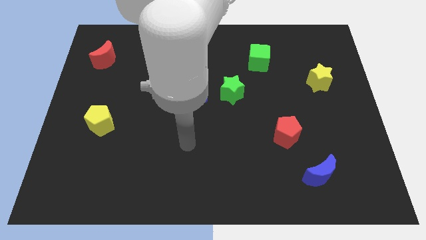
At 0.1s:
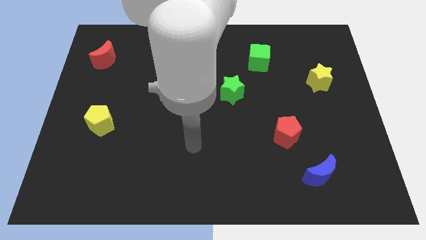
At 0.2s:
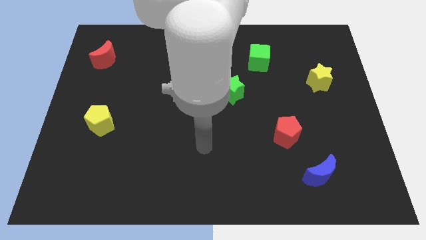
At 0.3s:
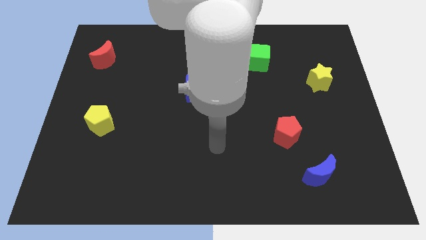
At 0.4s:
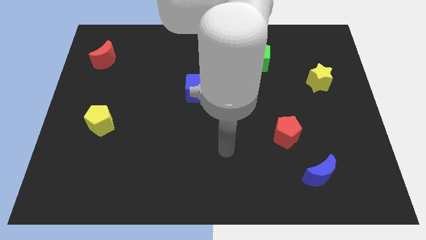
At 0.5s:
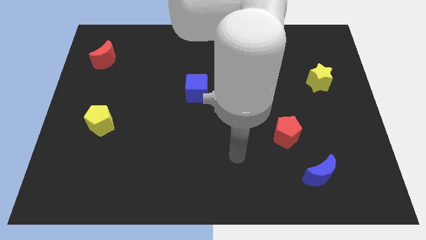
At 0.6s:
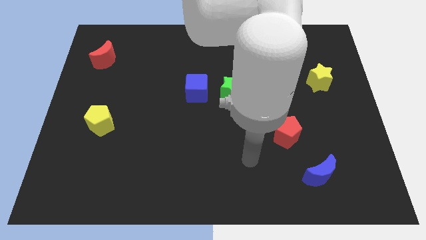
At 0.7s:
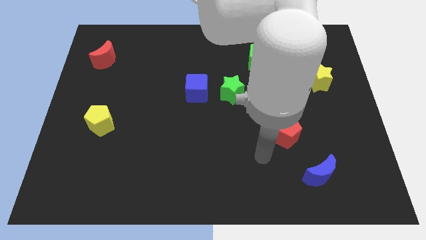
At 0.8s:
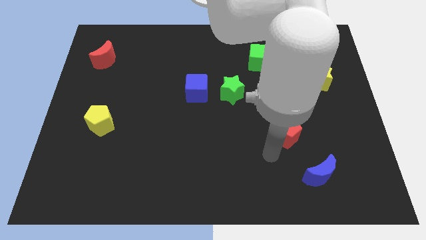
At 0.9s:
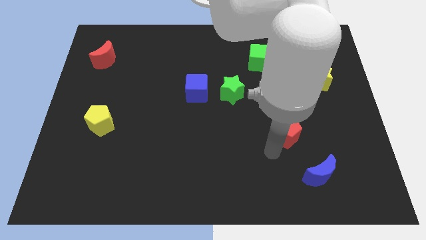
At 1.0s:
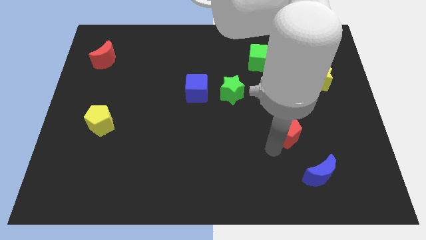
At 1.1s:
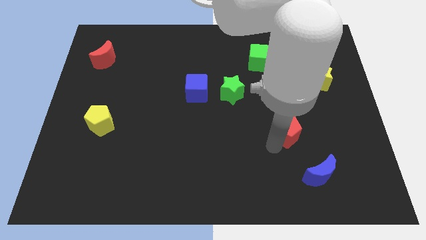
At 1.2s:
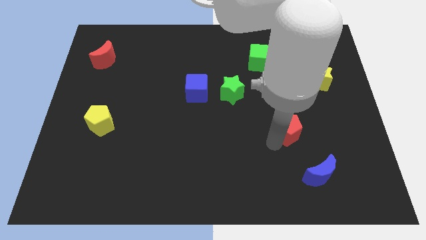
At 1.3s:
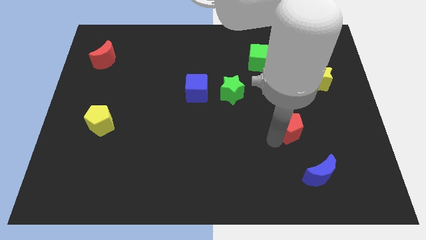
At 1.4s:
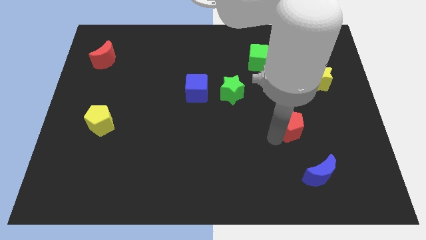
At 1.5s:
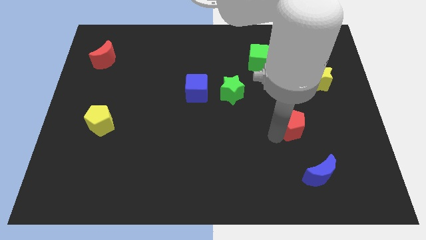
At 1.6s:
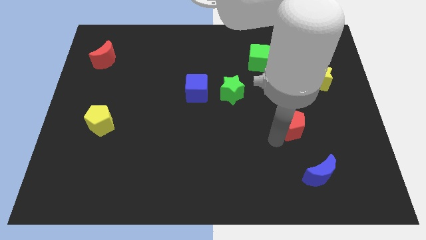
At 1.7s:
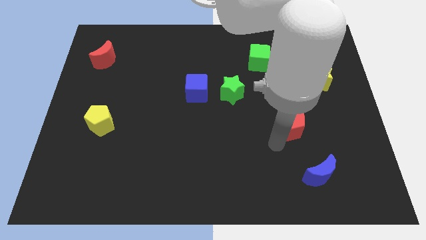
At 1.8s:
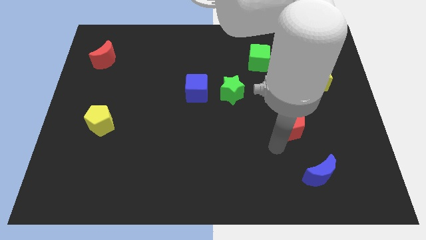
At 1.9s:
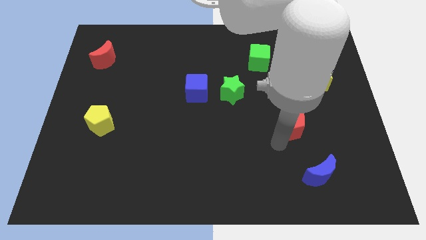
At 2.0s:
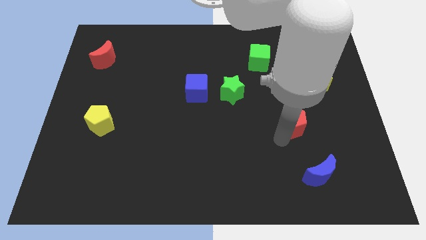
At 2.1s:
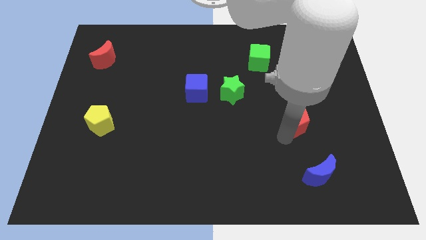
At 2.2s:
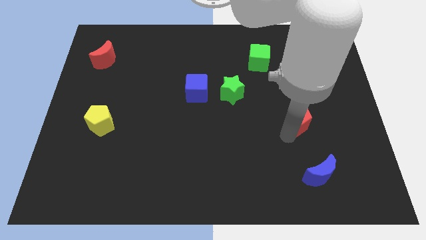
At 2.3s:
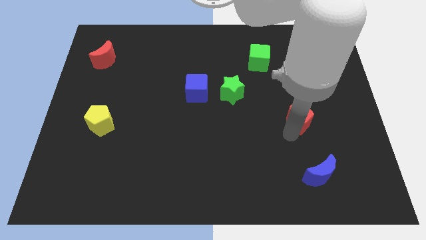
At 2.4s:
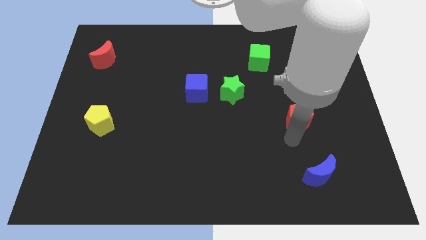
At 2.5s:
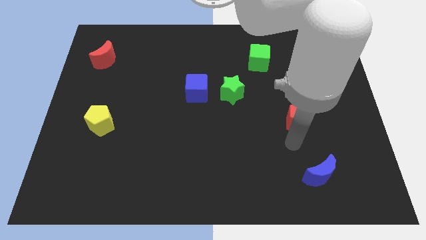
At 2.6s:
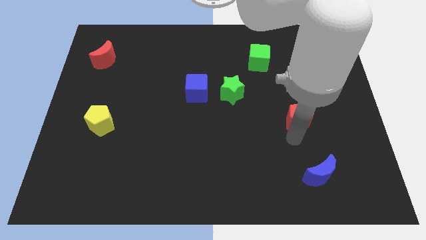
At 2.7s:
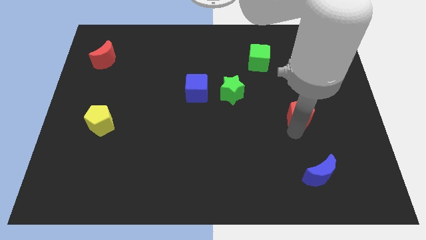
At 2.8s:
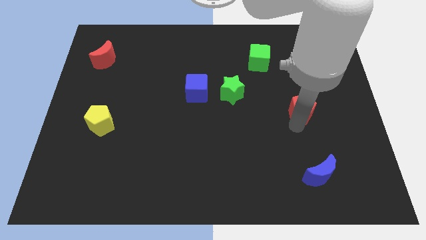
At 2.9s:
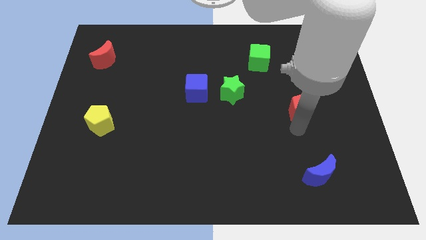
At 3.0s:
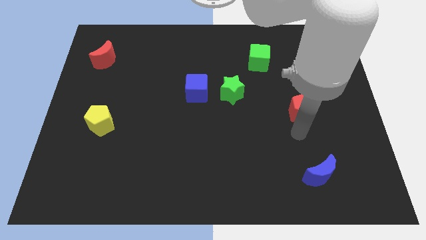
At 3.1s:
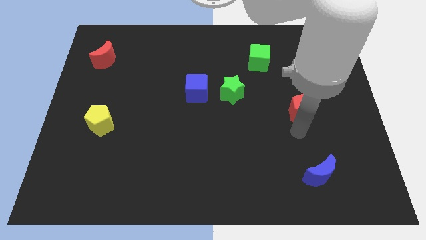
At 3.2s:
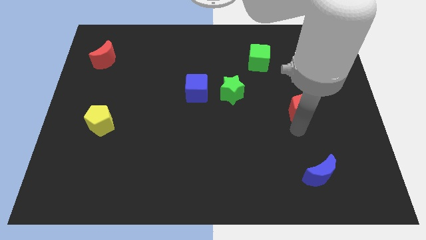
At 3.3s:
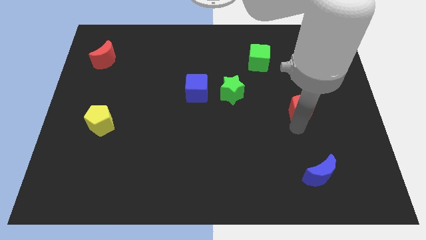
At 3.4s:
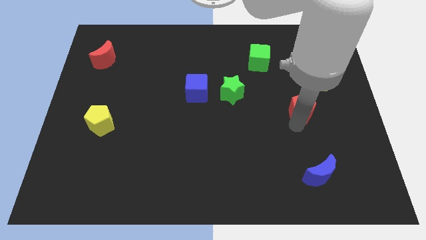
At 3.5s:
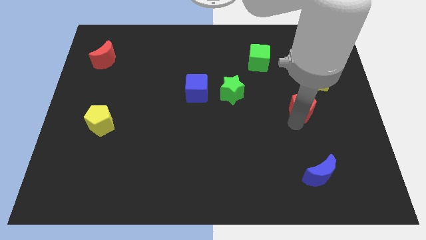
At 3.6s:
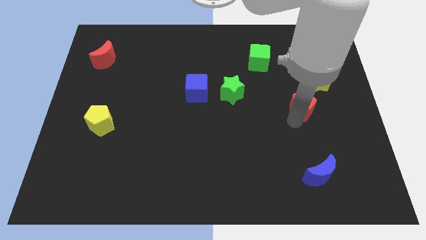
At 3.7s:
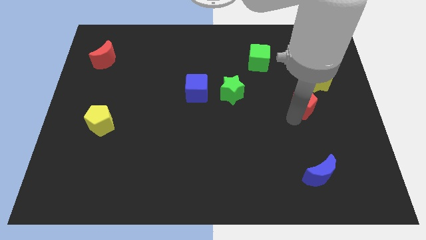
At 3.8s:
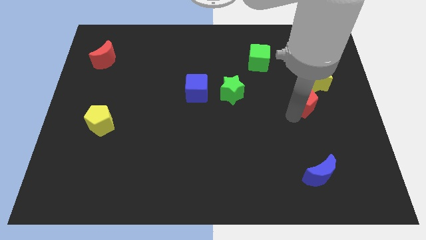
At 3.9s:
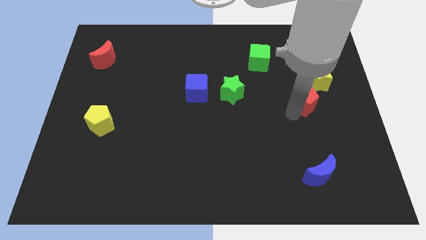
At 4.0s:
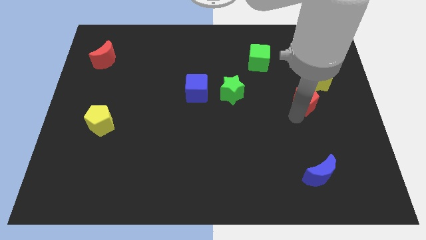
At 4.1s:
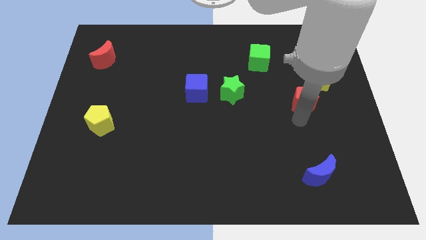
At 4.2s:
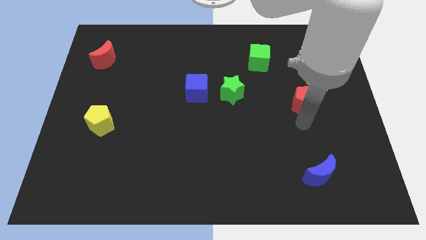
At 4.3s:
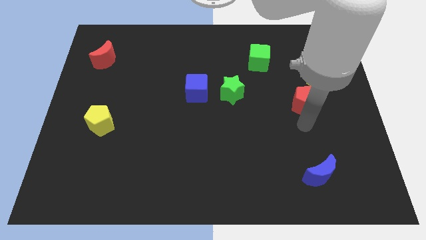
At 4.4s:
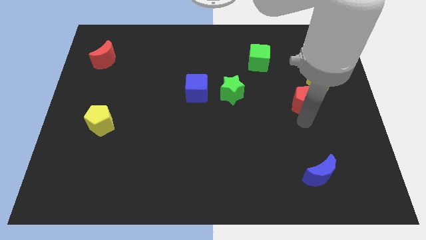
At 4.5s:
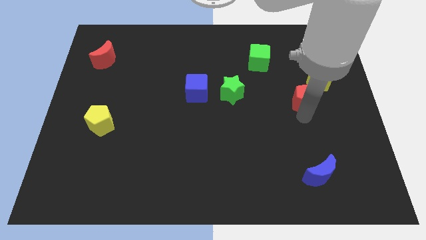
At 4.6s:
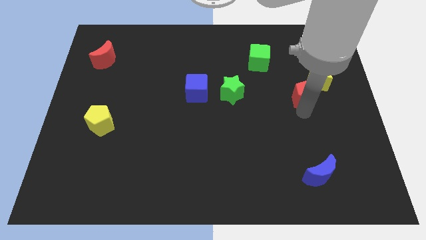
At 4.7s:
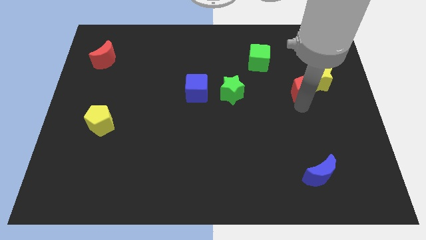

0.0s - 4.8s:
put the red pentagon to the yellow star

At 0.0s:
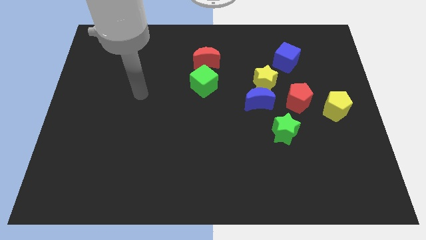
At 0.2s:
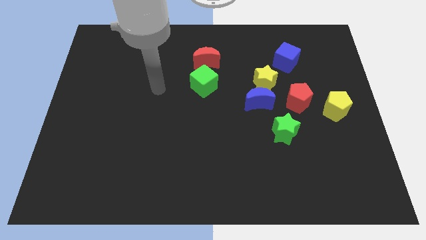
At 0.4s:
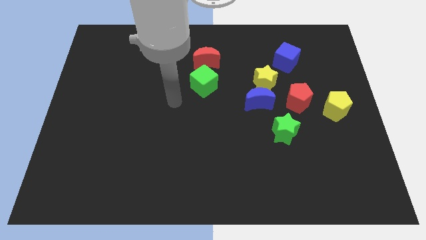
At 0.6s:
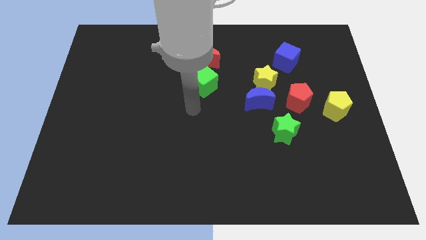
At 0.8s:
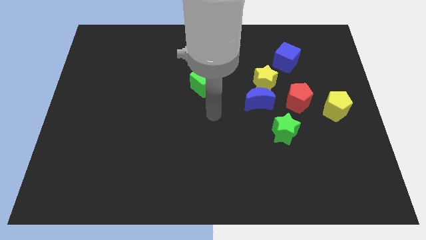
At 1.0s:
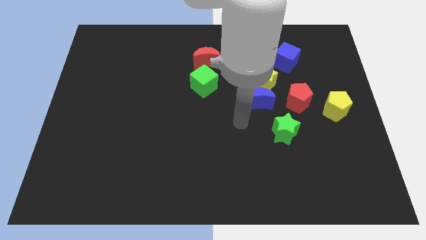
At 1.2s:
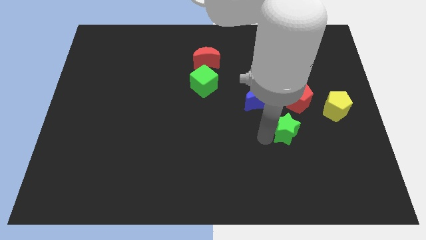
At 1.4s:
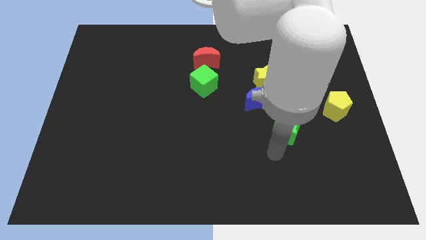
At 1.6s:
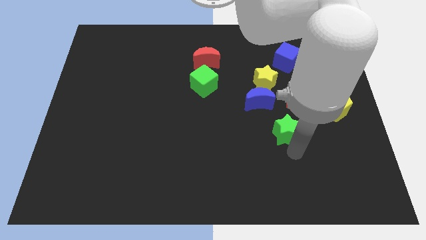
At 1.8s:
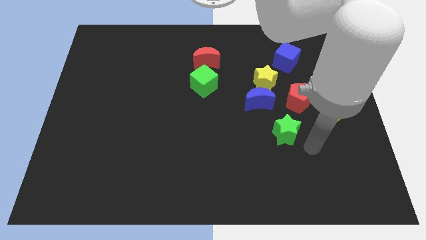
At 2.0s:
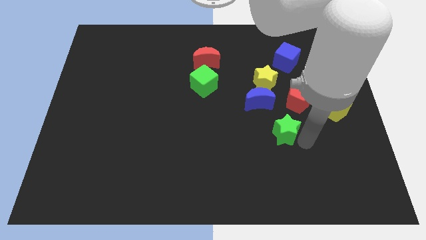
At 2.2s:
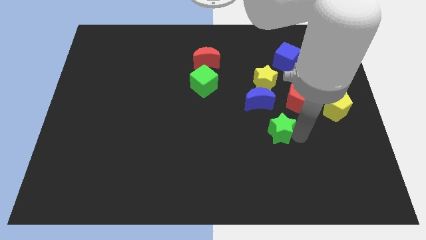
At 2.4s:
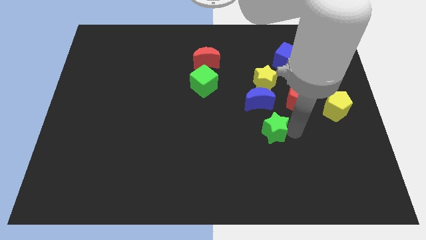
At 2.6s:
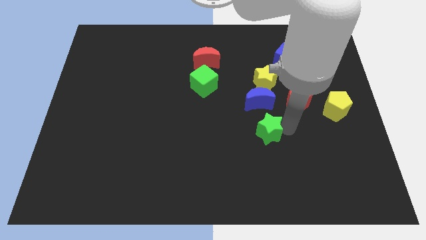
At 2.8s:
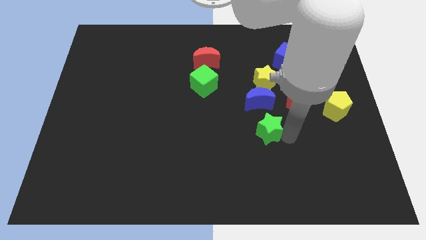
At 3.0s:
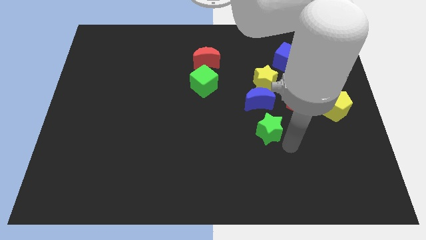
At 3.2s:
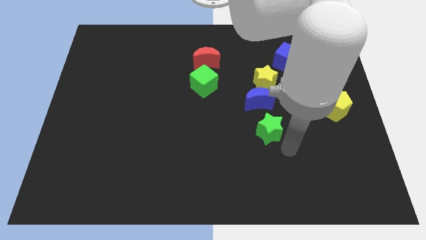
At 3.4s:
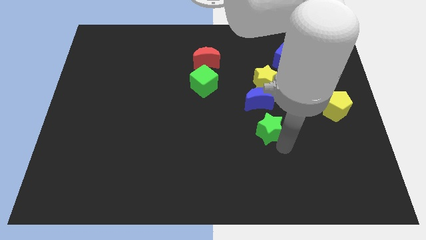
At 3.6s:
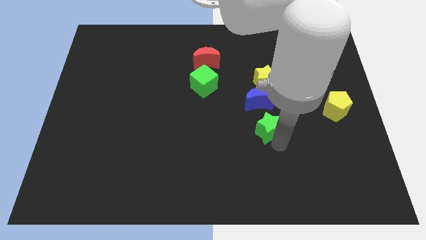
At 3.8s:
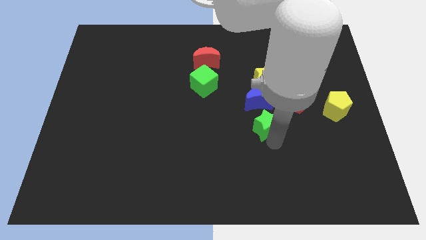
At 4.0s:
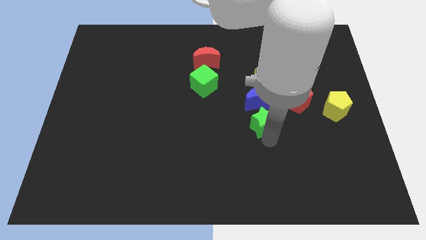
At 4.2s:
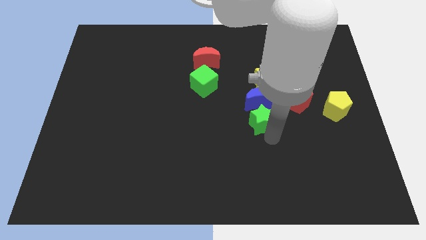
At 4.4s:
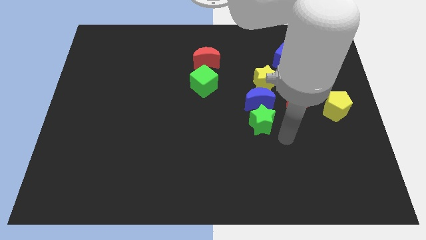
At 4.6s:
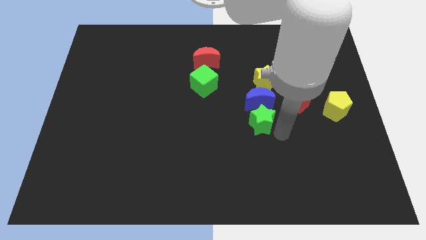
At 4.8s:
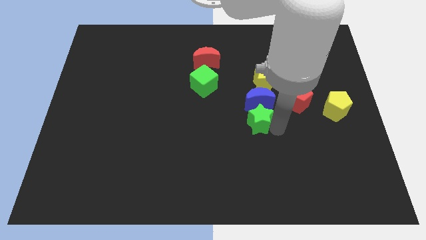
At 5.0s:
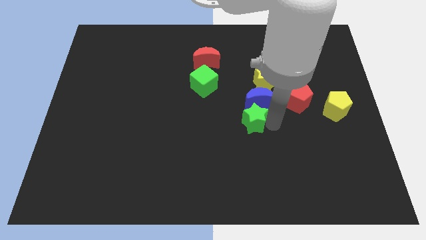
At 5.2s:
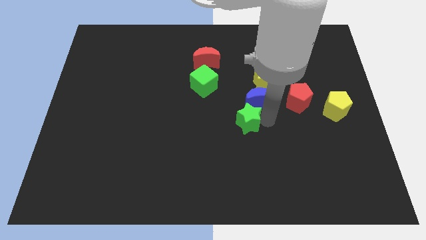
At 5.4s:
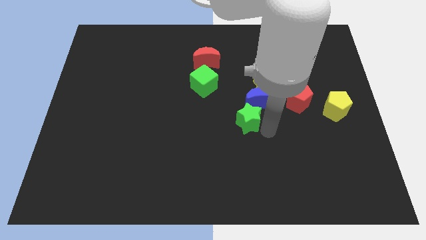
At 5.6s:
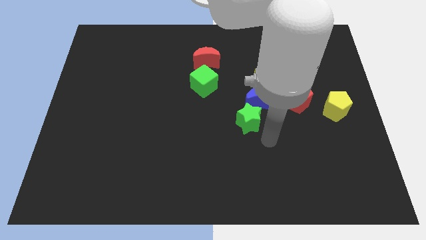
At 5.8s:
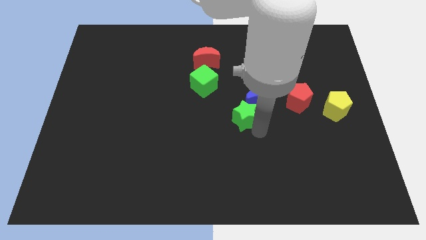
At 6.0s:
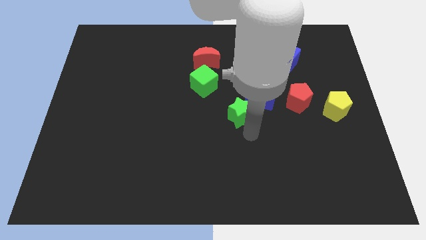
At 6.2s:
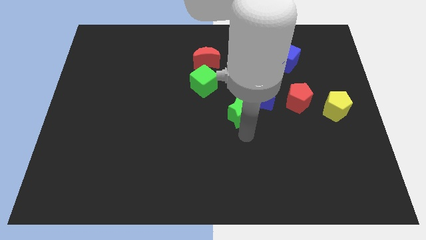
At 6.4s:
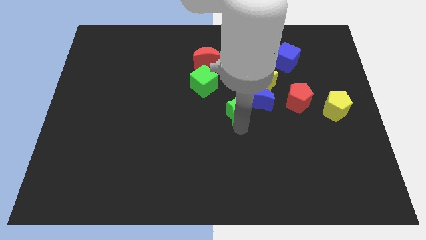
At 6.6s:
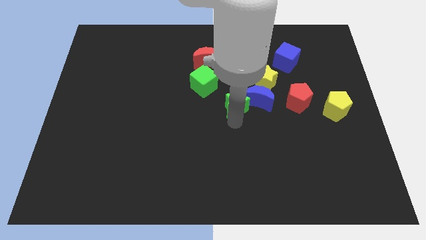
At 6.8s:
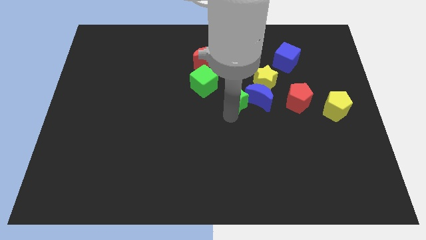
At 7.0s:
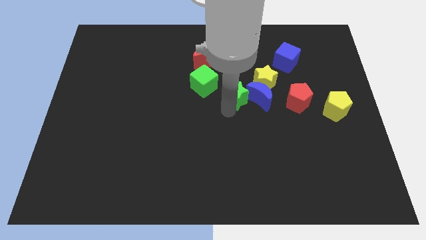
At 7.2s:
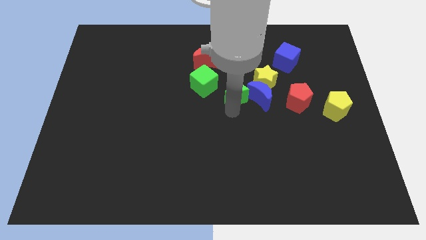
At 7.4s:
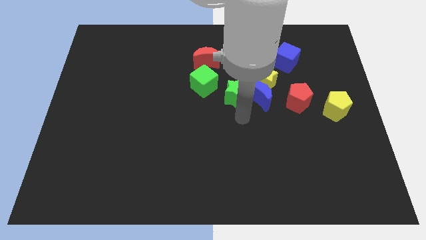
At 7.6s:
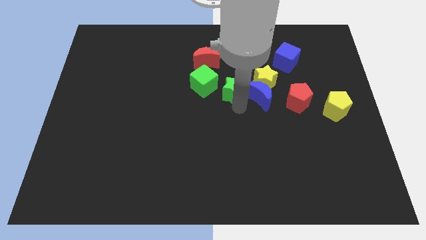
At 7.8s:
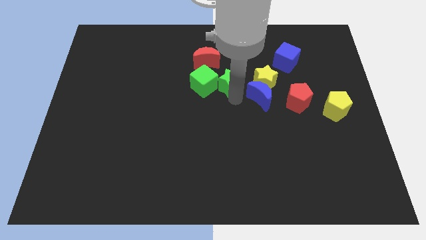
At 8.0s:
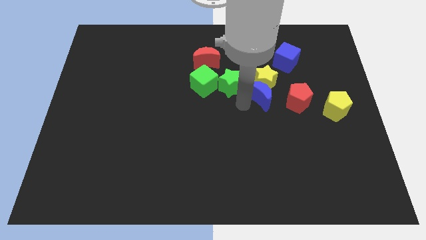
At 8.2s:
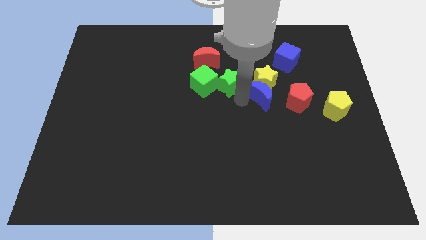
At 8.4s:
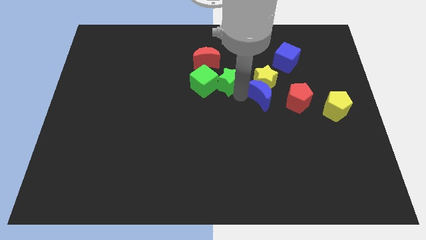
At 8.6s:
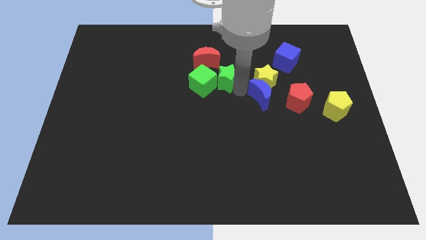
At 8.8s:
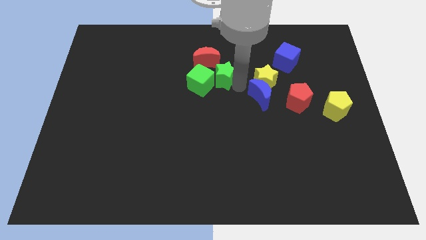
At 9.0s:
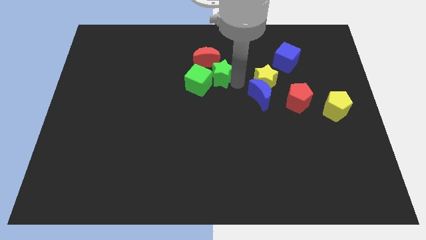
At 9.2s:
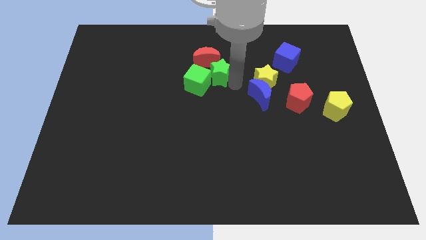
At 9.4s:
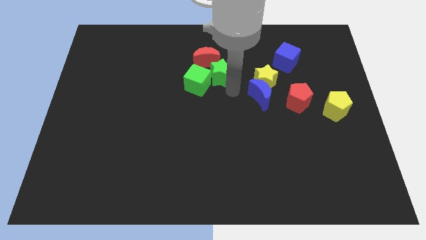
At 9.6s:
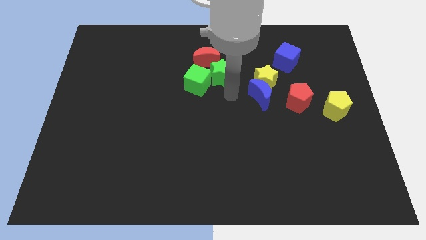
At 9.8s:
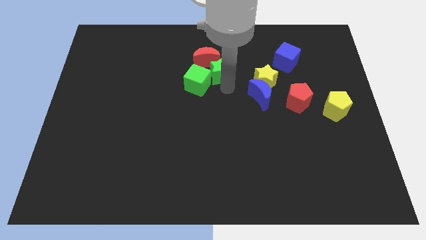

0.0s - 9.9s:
push the green star close to the red moon
